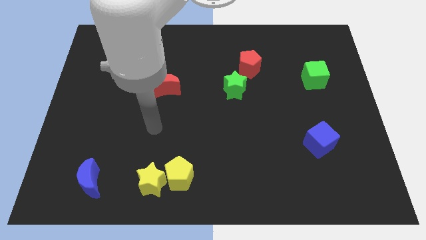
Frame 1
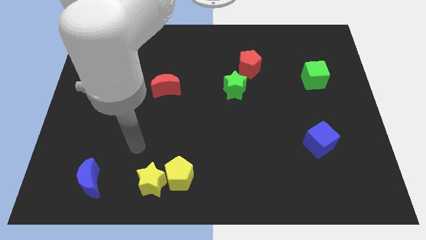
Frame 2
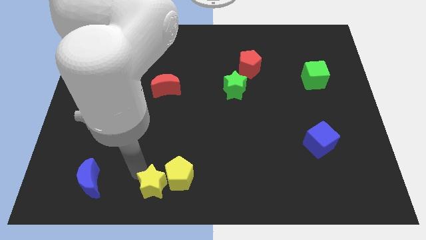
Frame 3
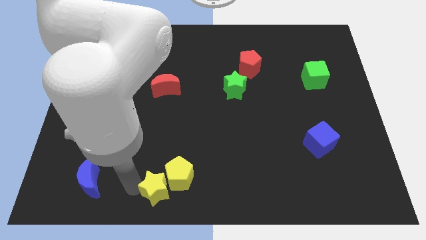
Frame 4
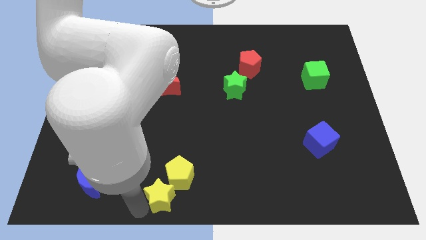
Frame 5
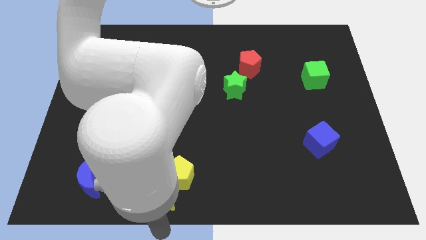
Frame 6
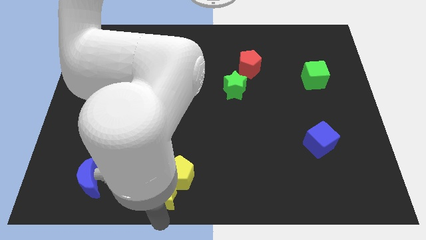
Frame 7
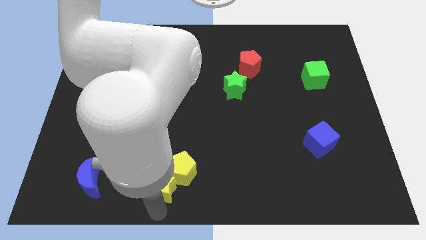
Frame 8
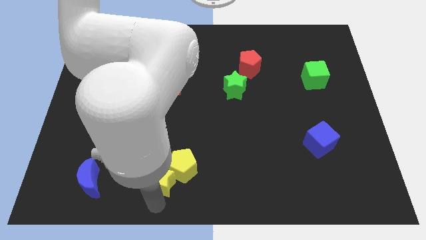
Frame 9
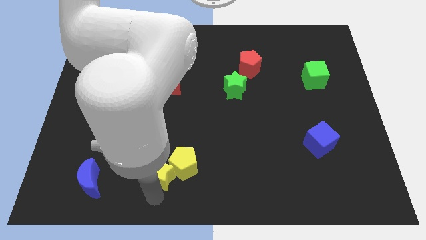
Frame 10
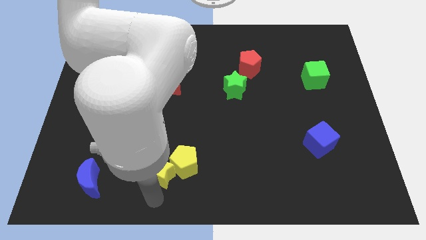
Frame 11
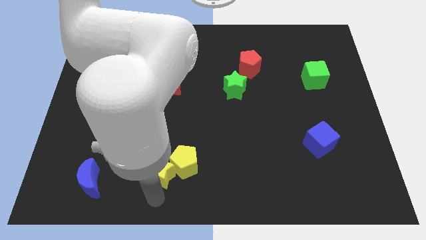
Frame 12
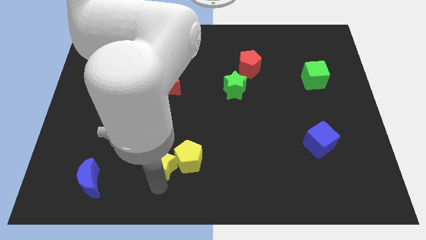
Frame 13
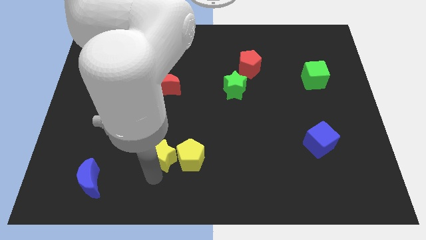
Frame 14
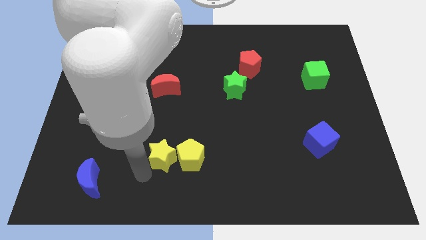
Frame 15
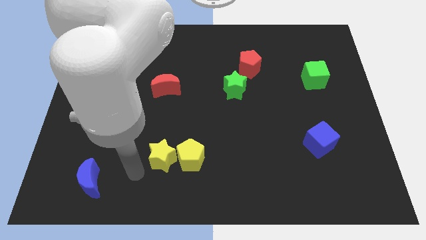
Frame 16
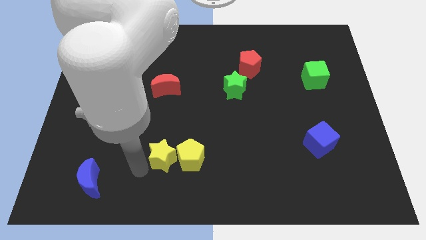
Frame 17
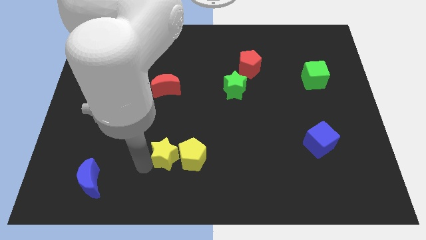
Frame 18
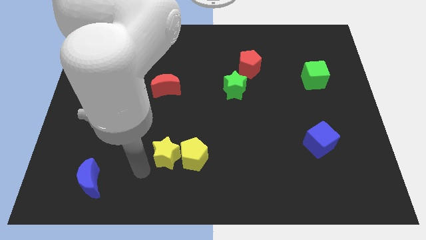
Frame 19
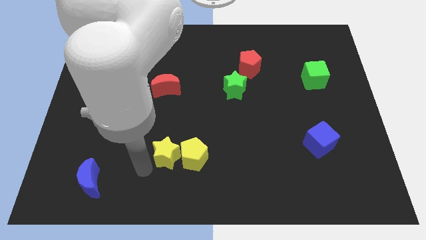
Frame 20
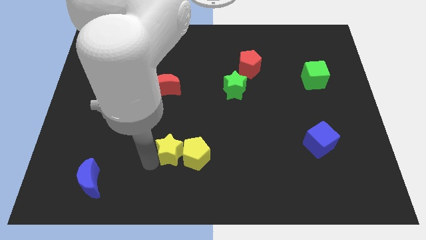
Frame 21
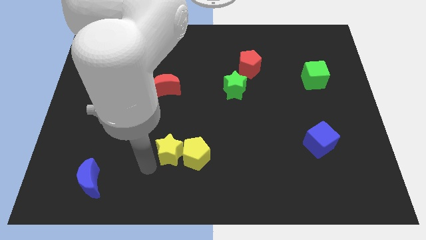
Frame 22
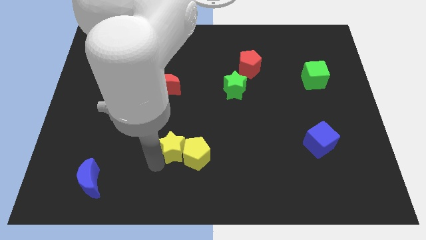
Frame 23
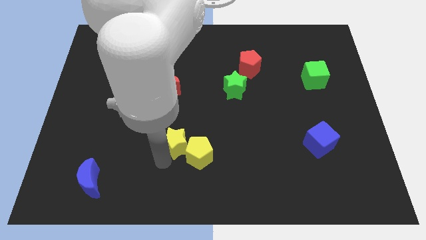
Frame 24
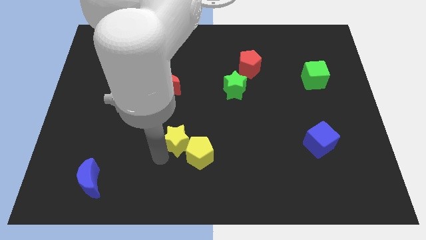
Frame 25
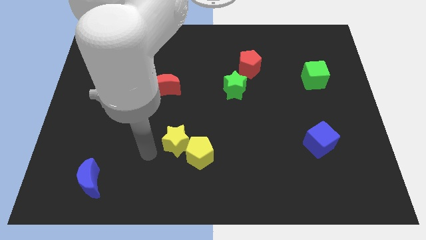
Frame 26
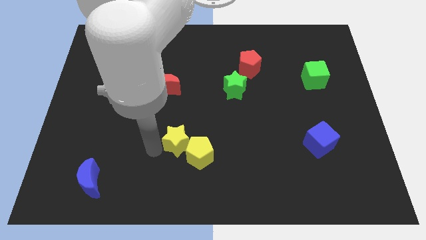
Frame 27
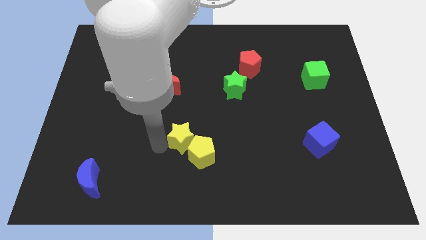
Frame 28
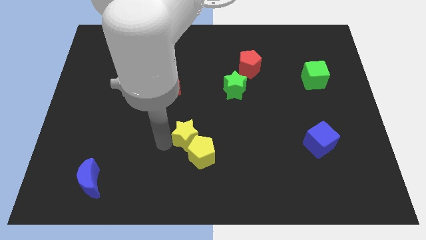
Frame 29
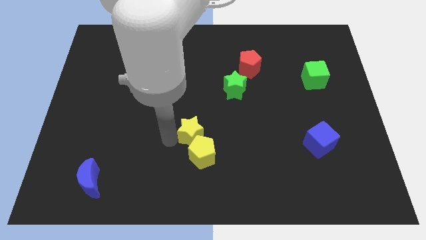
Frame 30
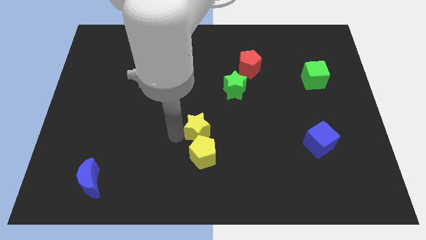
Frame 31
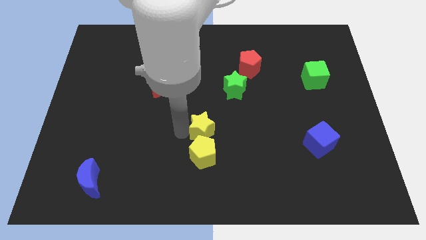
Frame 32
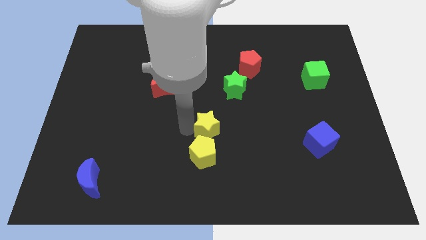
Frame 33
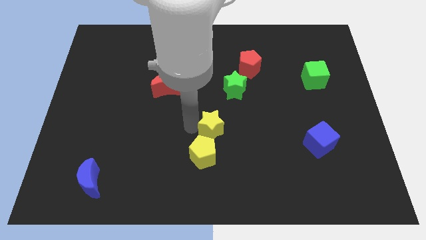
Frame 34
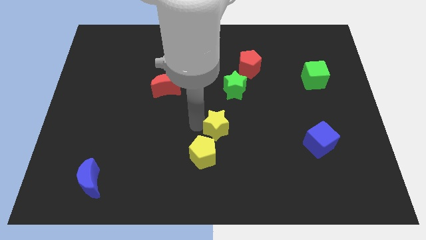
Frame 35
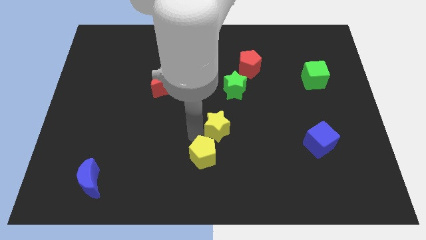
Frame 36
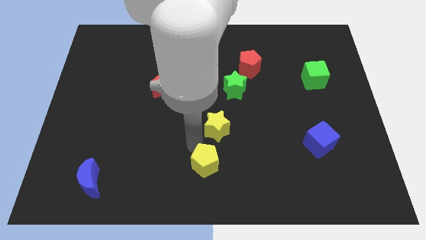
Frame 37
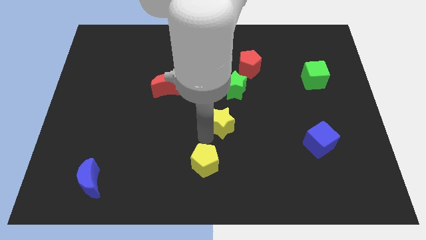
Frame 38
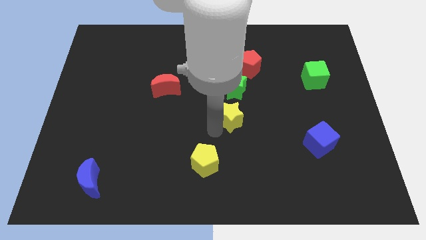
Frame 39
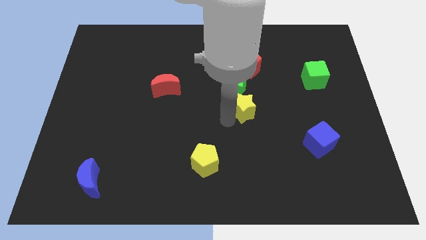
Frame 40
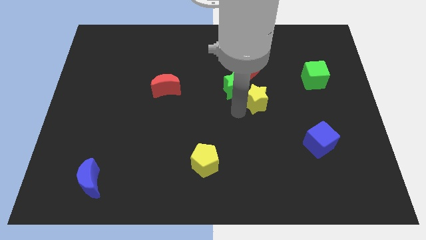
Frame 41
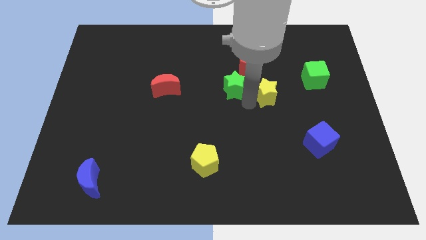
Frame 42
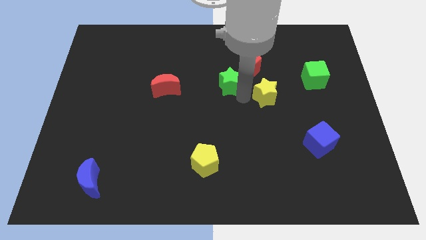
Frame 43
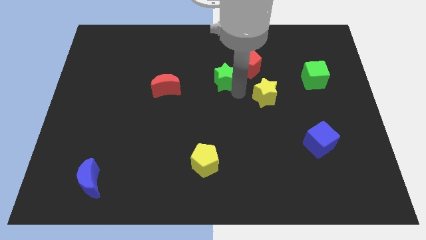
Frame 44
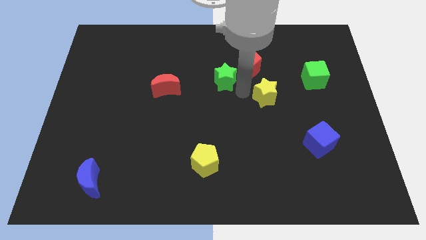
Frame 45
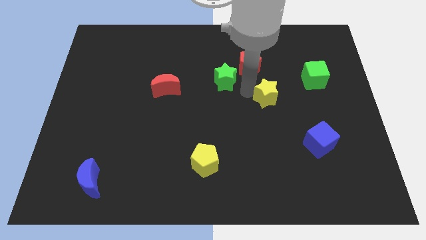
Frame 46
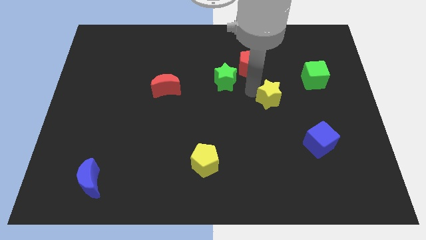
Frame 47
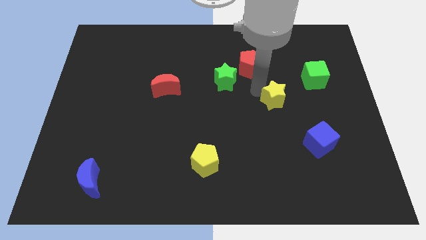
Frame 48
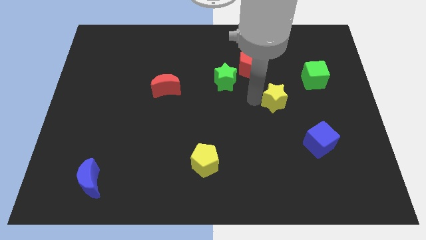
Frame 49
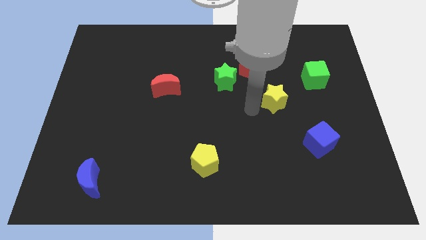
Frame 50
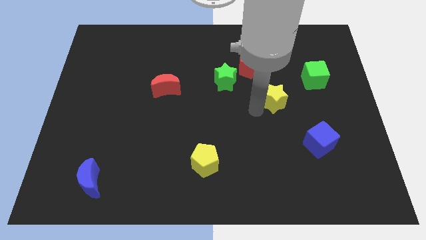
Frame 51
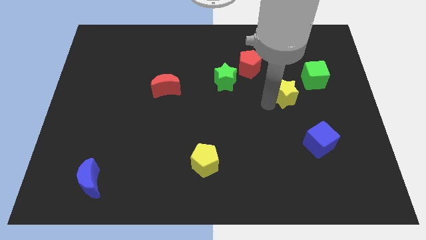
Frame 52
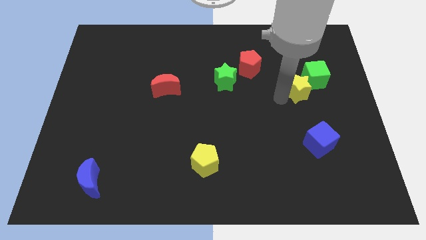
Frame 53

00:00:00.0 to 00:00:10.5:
move the yellow star close to the green cube

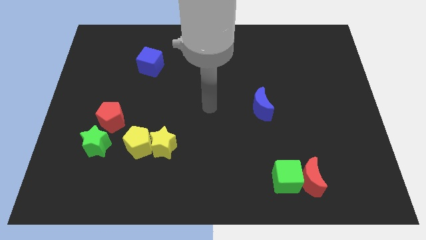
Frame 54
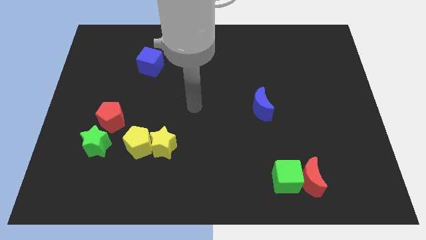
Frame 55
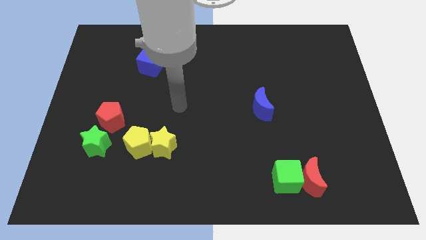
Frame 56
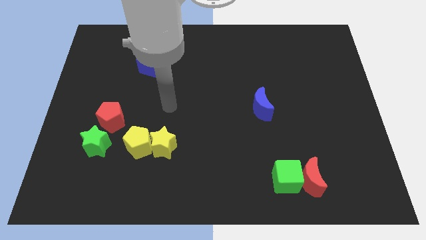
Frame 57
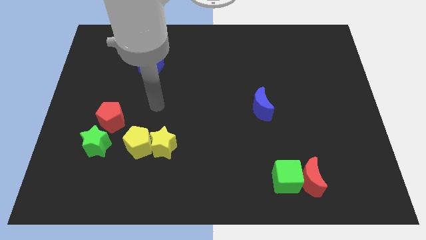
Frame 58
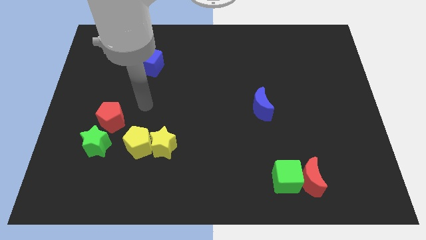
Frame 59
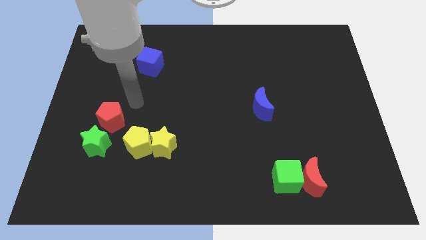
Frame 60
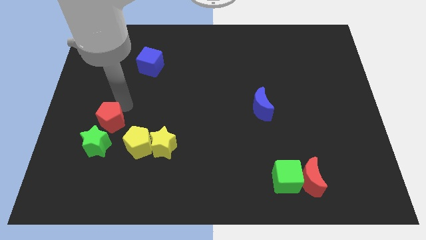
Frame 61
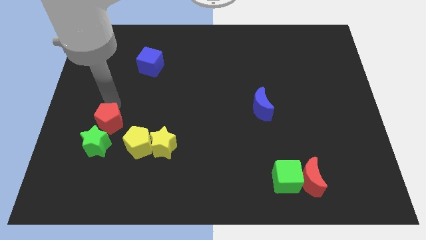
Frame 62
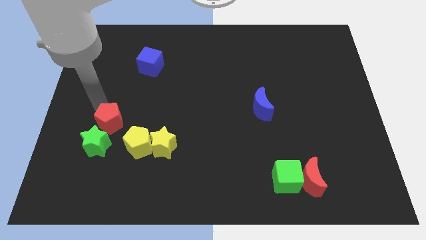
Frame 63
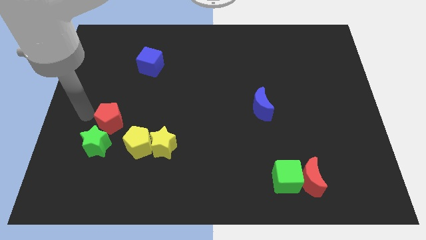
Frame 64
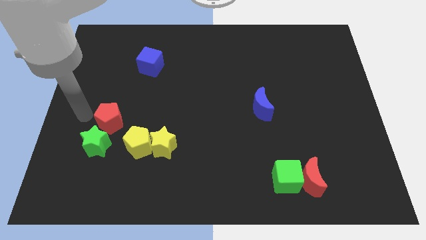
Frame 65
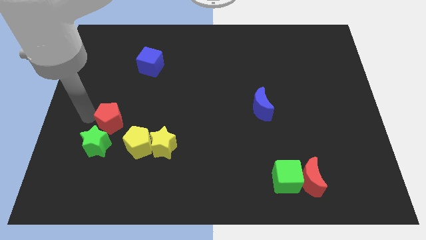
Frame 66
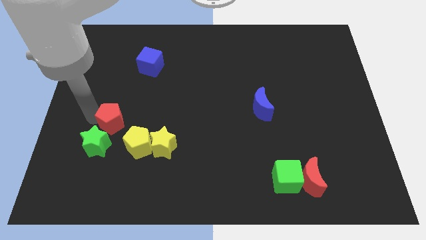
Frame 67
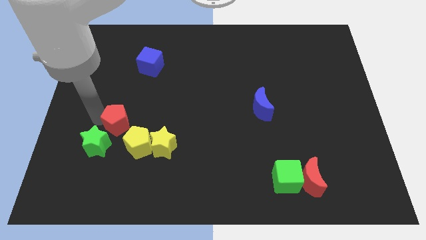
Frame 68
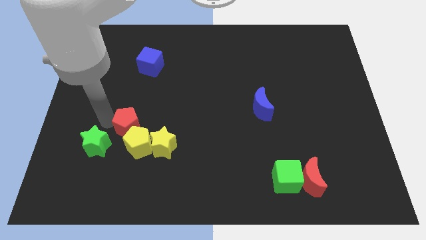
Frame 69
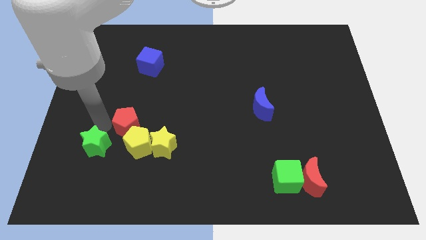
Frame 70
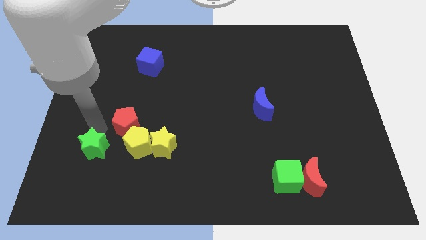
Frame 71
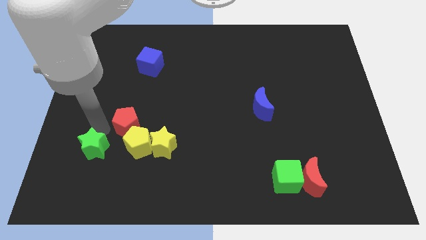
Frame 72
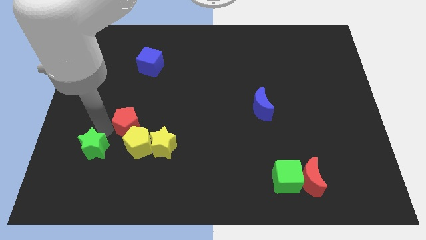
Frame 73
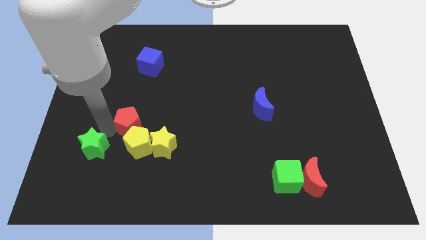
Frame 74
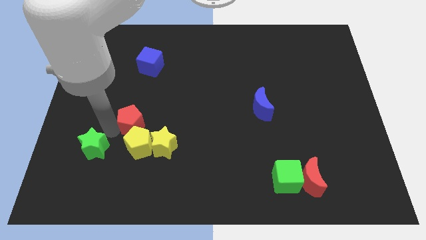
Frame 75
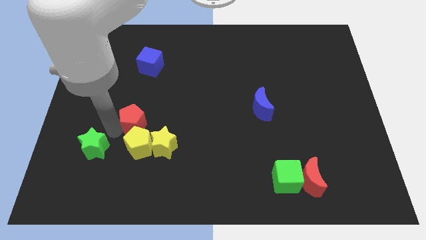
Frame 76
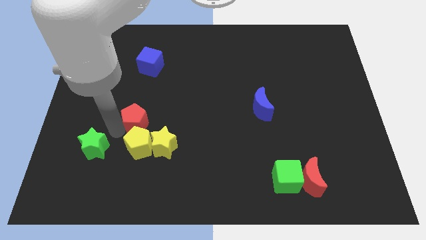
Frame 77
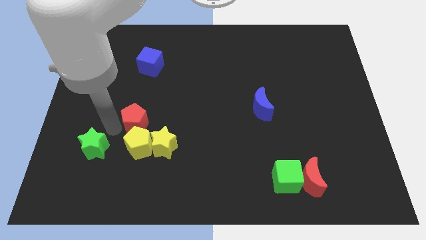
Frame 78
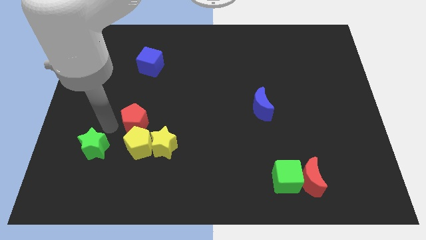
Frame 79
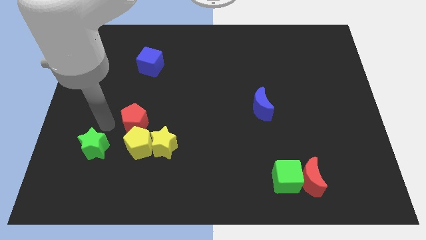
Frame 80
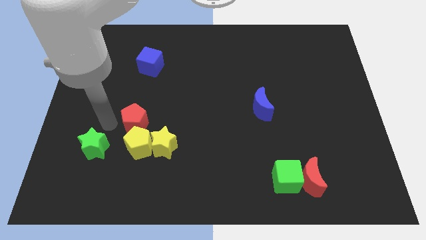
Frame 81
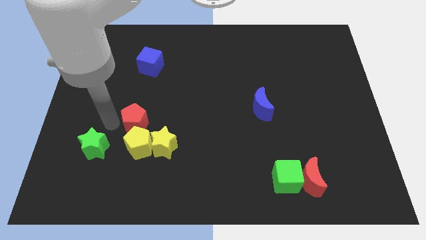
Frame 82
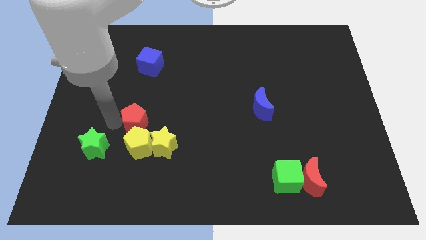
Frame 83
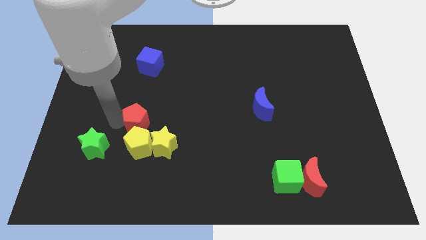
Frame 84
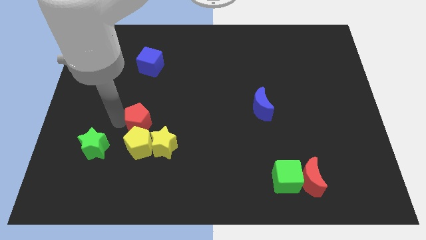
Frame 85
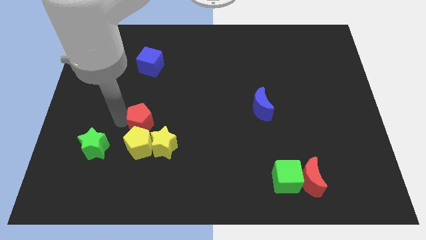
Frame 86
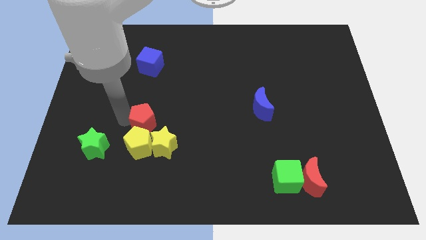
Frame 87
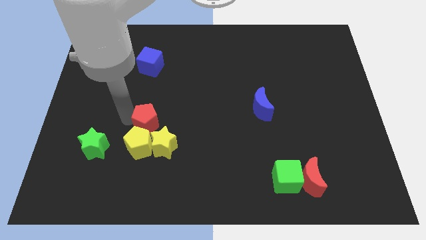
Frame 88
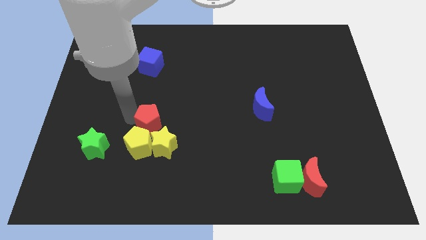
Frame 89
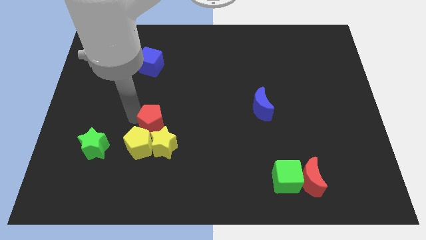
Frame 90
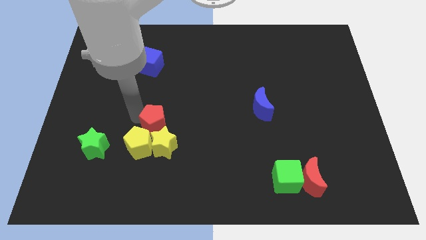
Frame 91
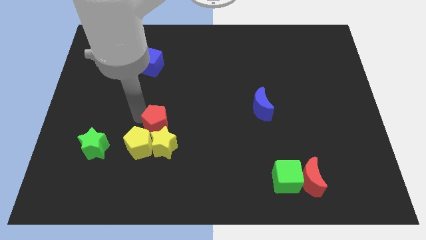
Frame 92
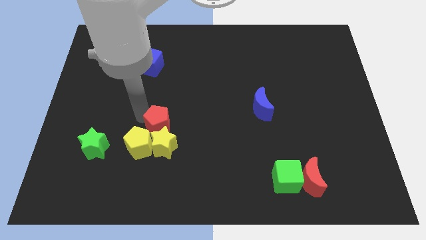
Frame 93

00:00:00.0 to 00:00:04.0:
slide the red pentagon to the yellow star
